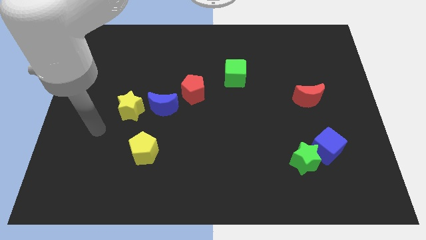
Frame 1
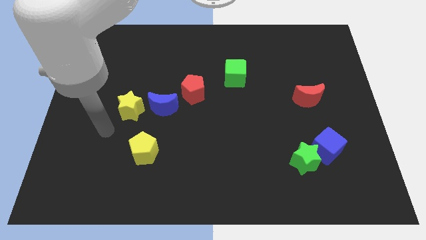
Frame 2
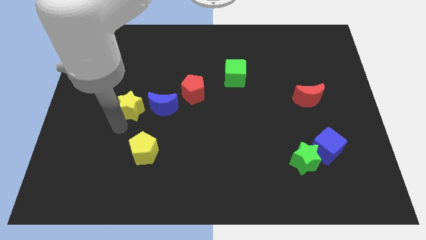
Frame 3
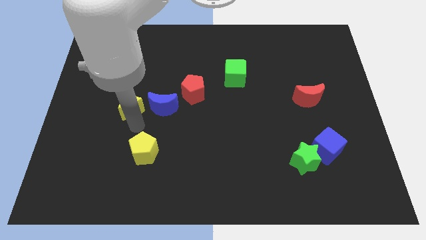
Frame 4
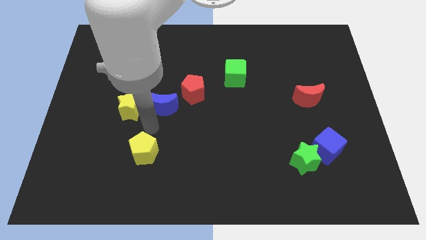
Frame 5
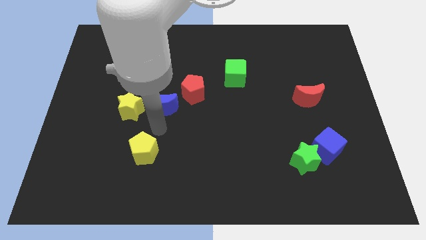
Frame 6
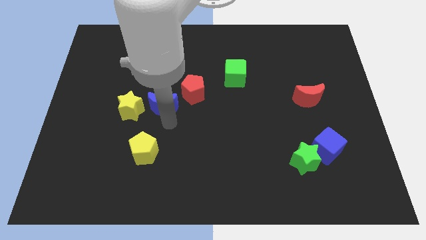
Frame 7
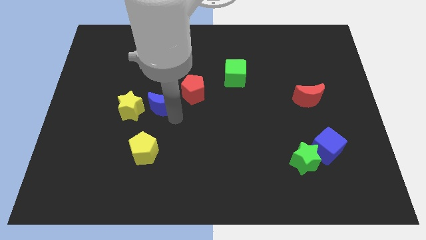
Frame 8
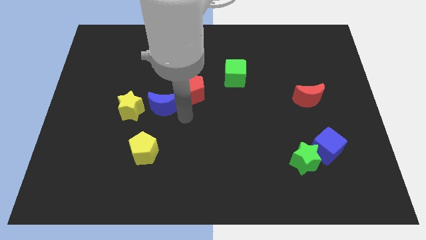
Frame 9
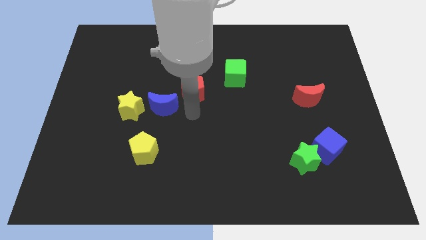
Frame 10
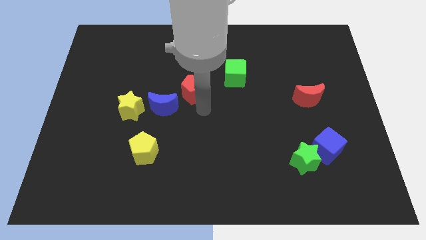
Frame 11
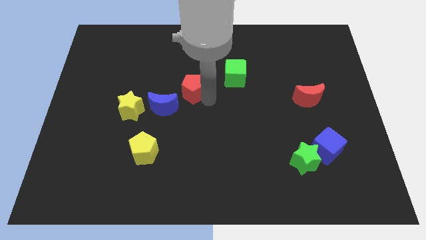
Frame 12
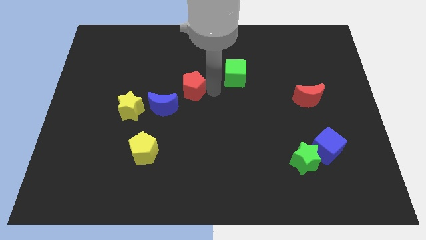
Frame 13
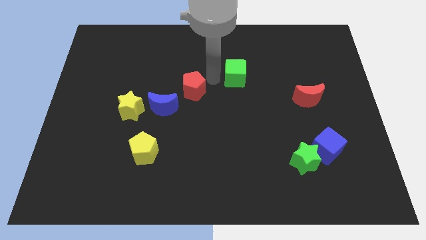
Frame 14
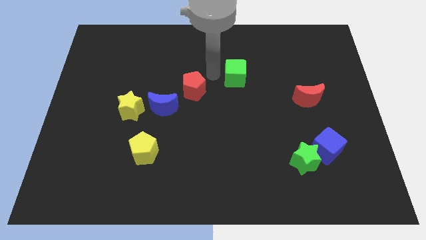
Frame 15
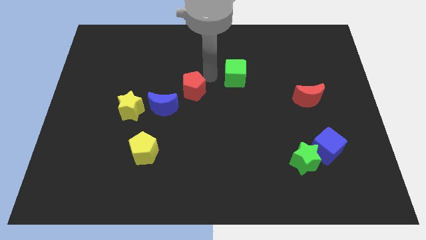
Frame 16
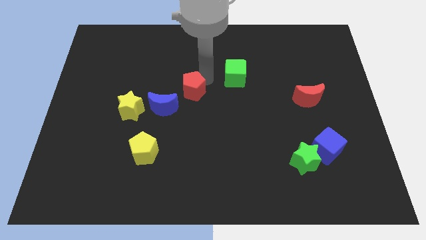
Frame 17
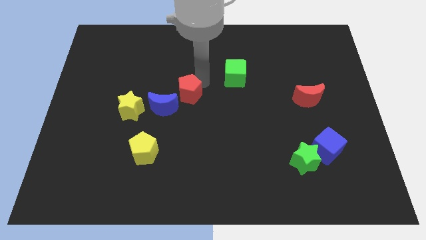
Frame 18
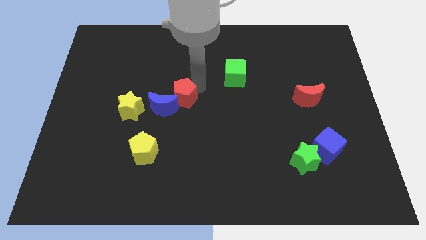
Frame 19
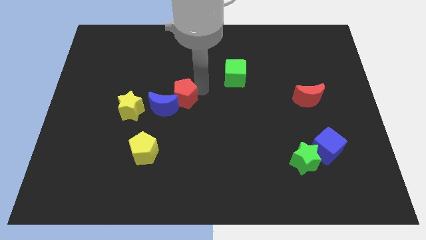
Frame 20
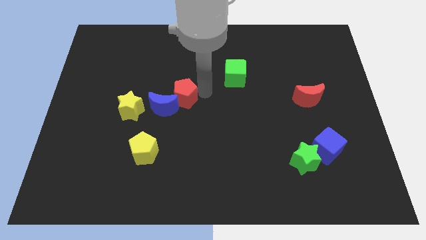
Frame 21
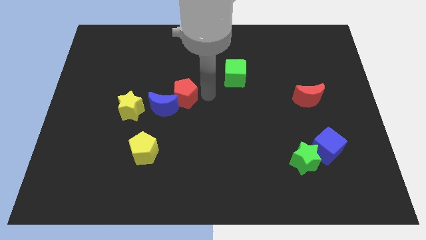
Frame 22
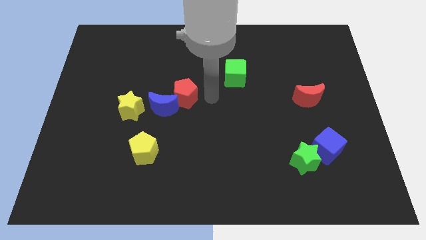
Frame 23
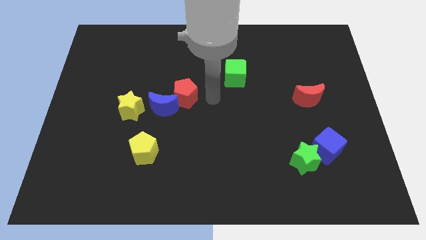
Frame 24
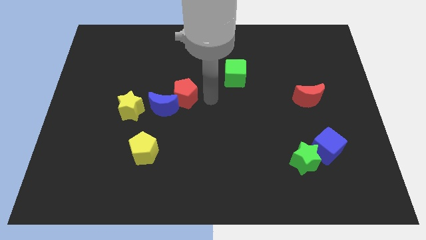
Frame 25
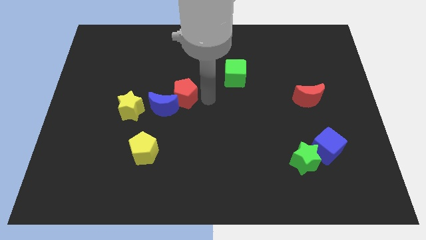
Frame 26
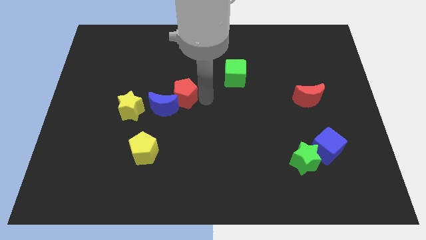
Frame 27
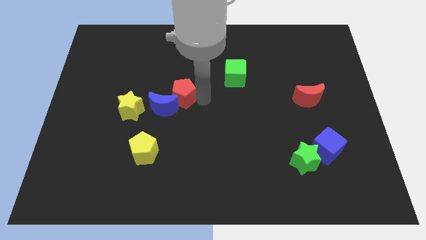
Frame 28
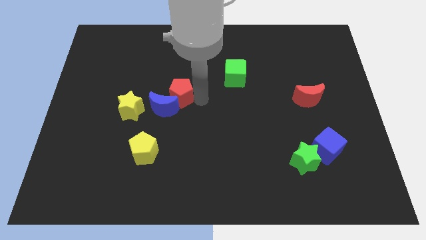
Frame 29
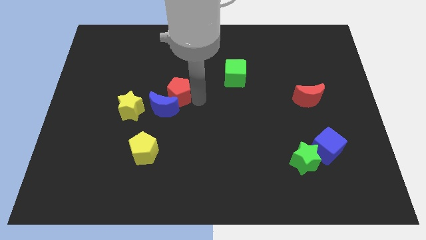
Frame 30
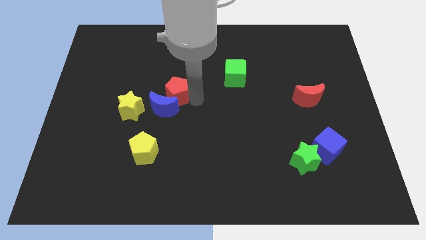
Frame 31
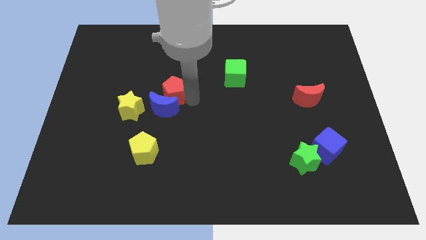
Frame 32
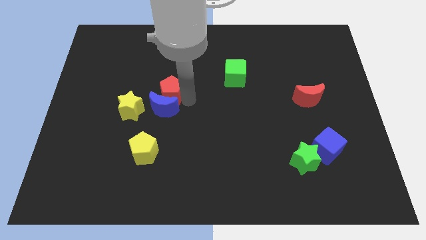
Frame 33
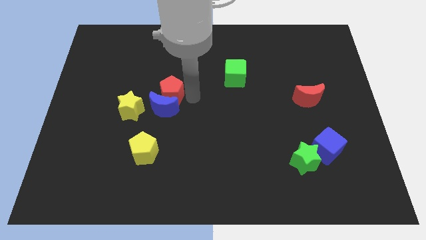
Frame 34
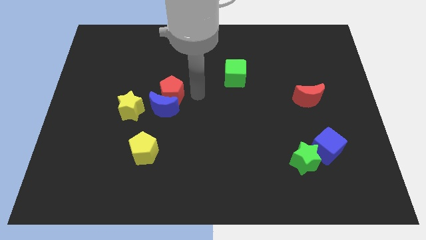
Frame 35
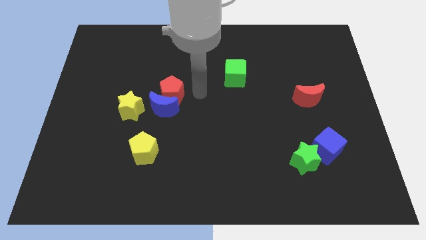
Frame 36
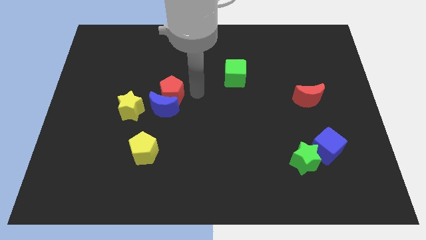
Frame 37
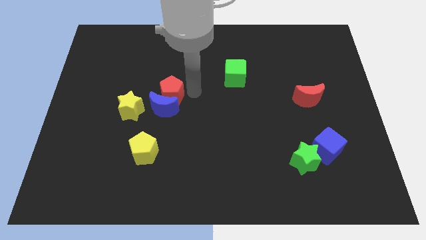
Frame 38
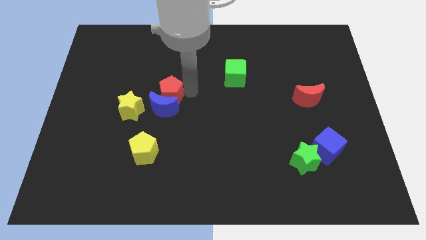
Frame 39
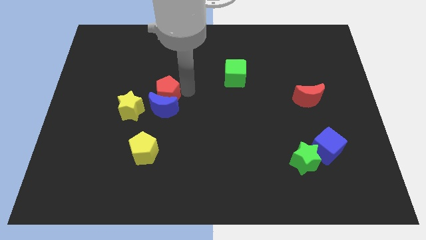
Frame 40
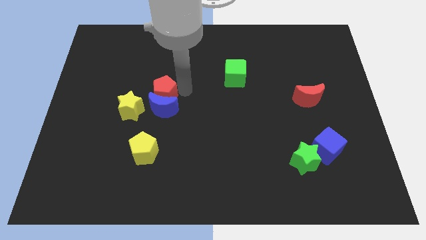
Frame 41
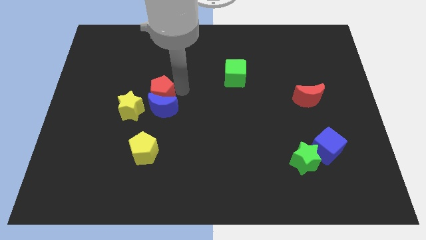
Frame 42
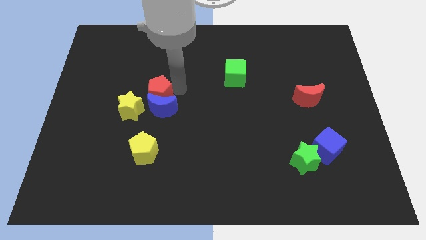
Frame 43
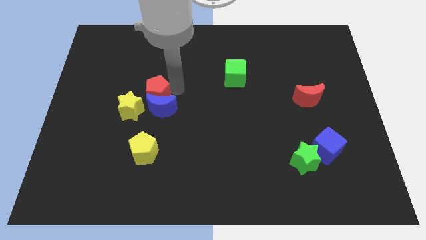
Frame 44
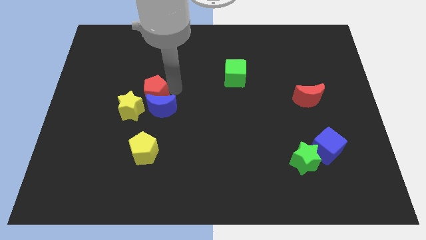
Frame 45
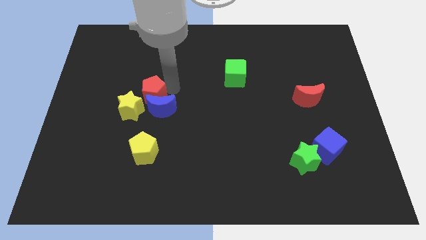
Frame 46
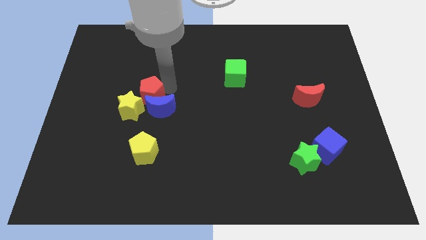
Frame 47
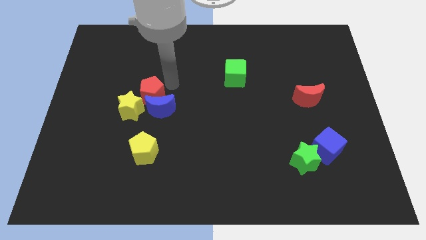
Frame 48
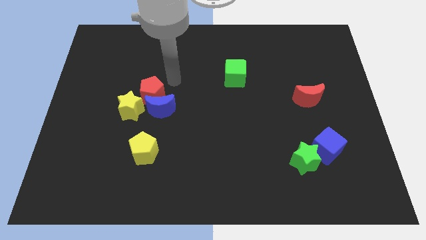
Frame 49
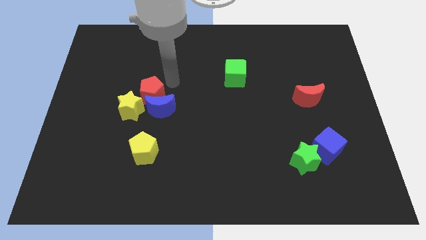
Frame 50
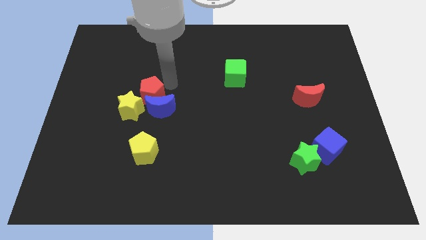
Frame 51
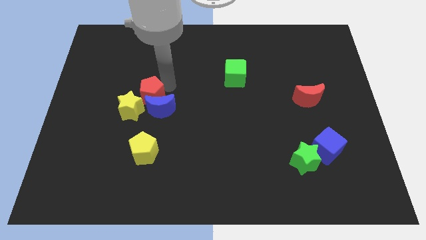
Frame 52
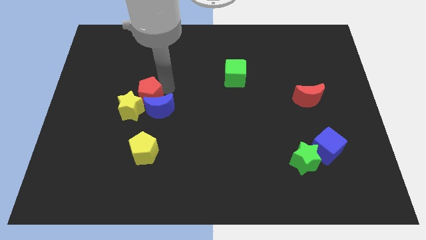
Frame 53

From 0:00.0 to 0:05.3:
slide the red pentagon to the yellow star

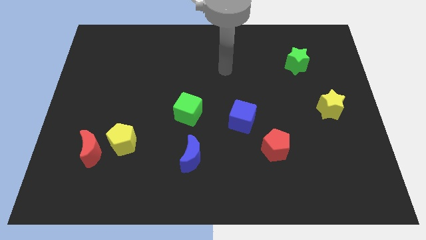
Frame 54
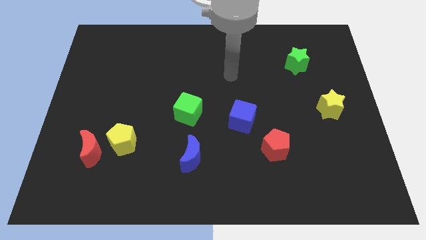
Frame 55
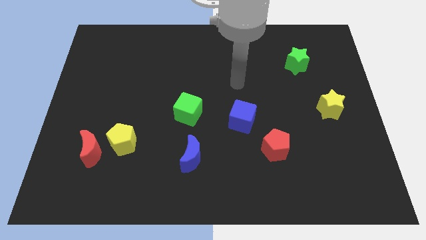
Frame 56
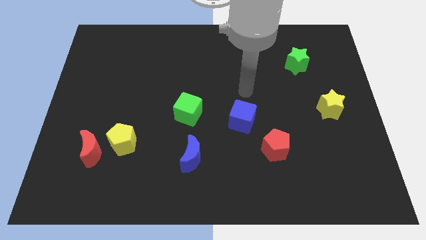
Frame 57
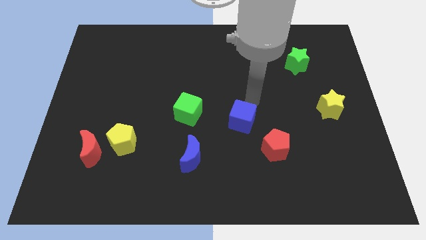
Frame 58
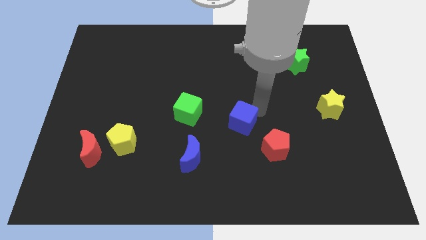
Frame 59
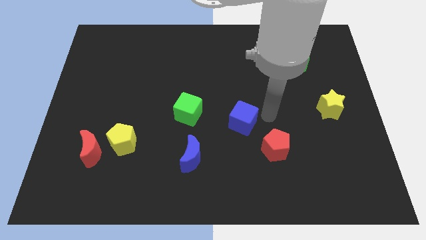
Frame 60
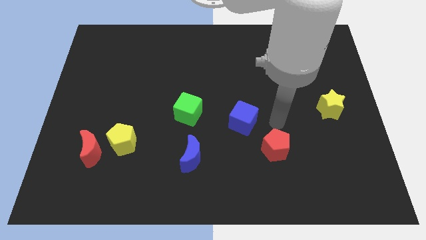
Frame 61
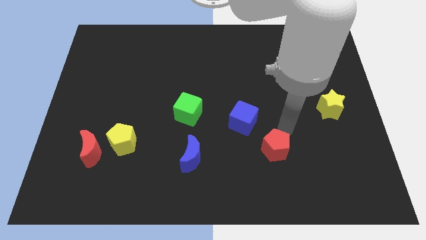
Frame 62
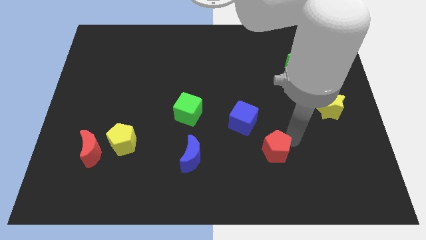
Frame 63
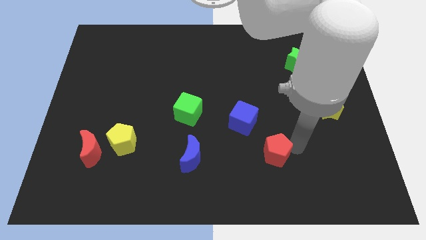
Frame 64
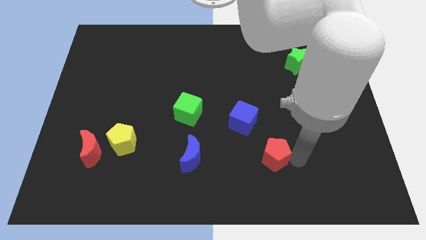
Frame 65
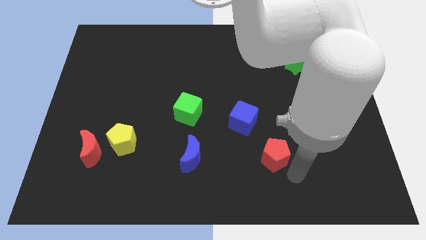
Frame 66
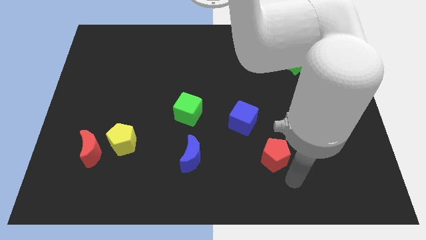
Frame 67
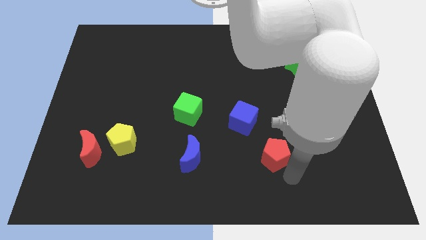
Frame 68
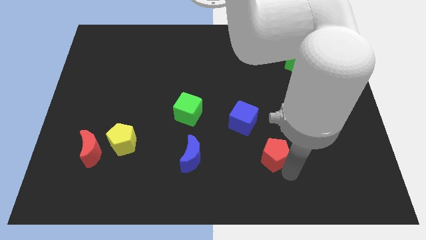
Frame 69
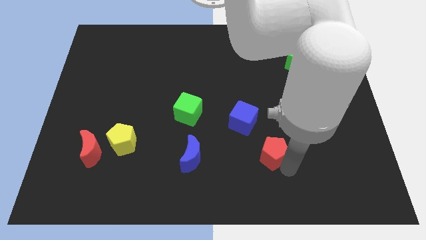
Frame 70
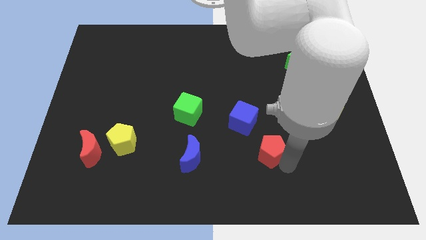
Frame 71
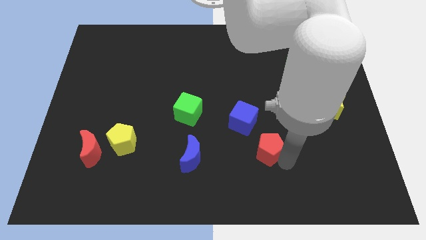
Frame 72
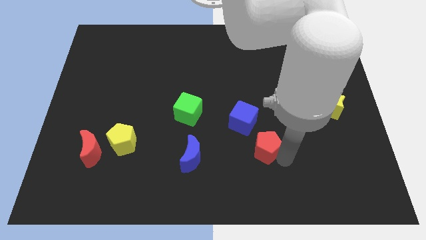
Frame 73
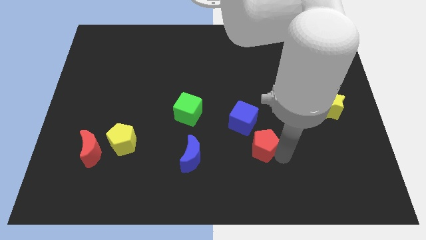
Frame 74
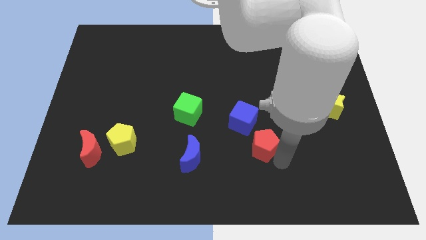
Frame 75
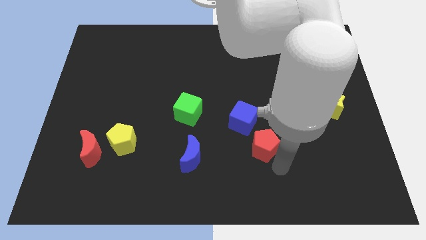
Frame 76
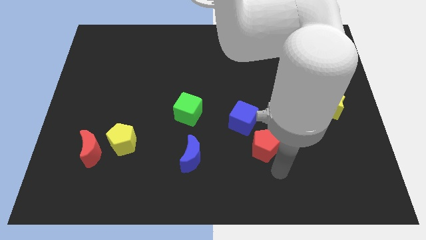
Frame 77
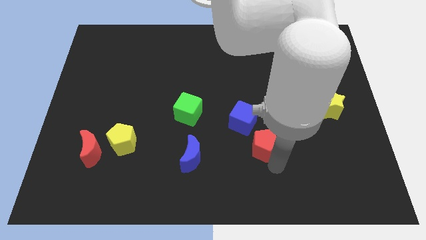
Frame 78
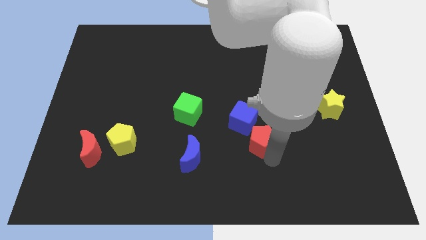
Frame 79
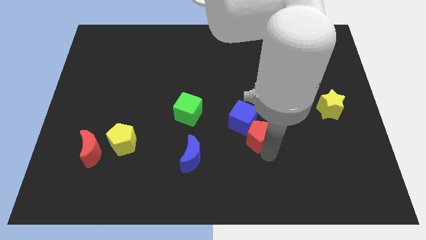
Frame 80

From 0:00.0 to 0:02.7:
move the red pentagon to the blue cube
